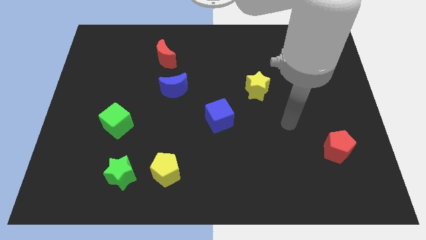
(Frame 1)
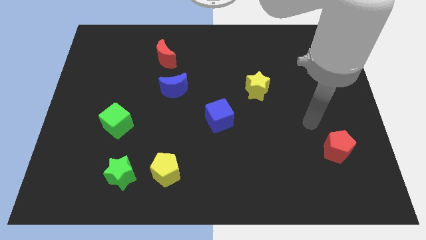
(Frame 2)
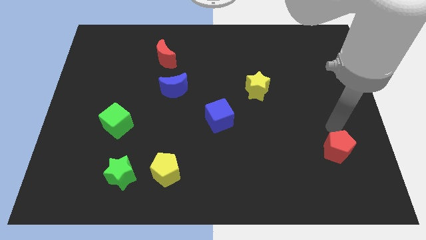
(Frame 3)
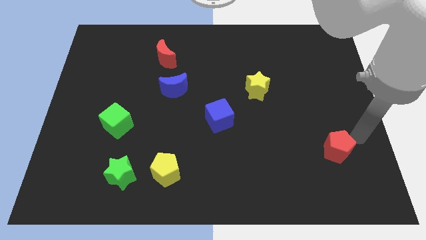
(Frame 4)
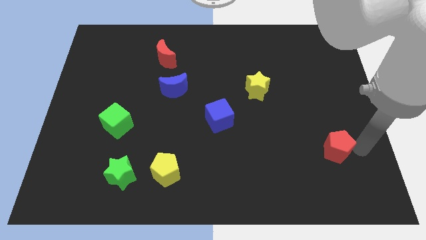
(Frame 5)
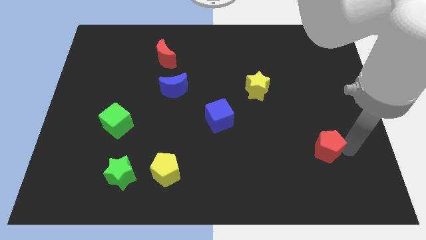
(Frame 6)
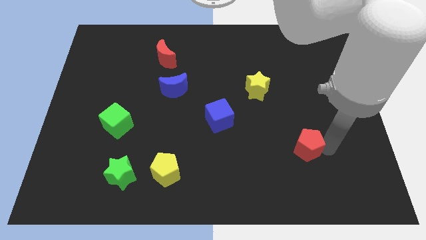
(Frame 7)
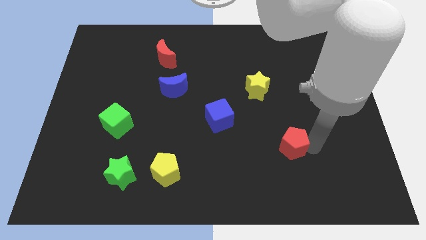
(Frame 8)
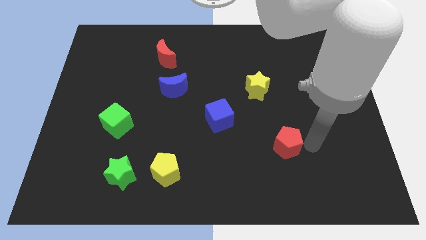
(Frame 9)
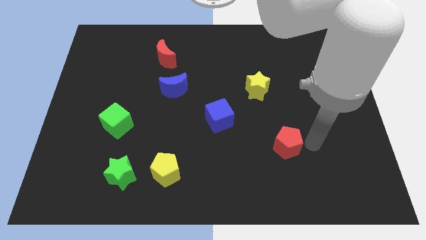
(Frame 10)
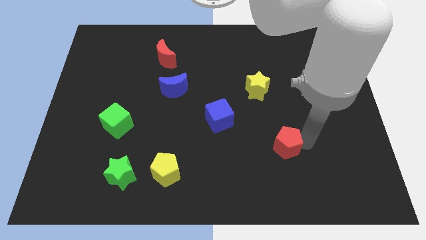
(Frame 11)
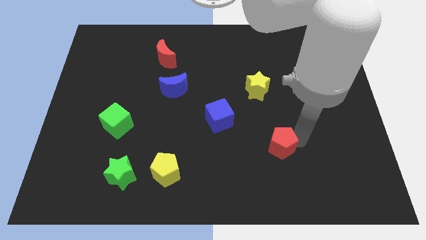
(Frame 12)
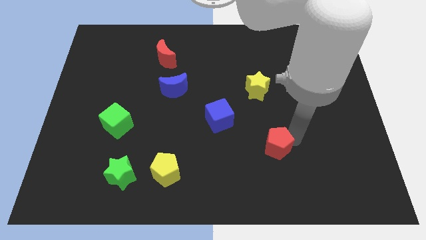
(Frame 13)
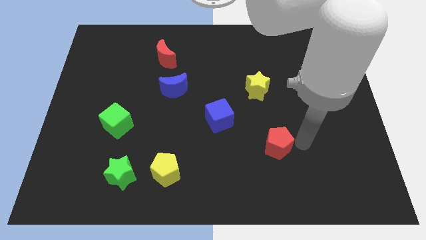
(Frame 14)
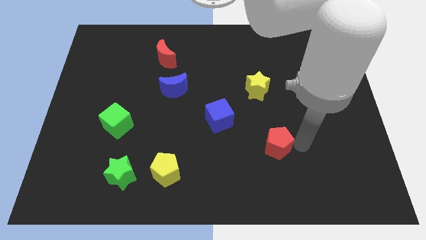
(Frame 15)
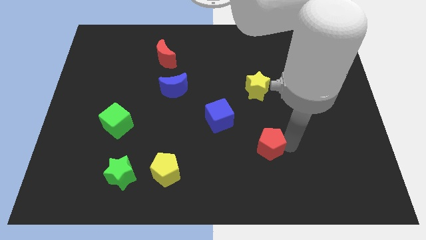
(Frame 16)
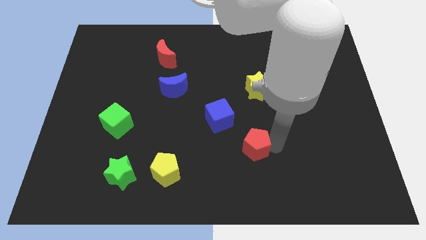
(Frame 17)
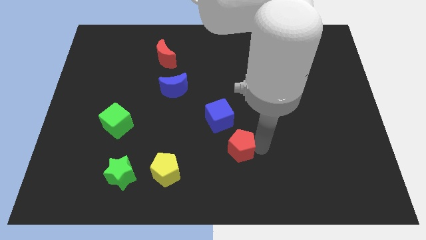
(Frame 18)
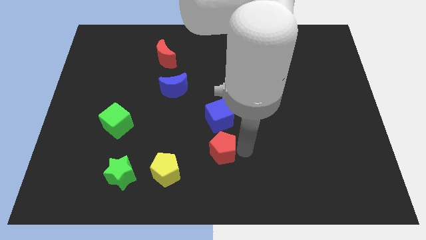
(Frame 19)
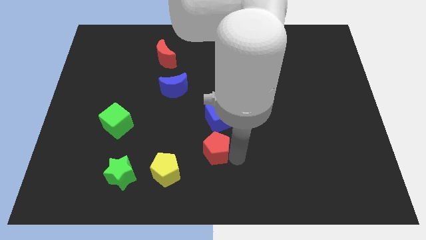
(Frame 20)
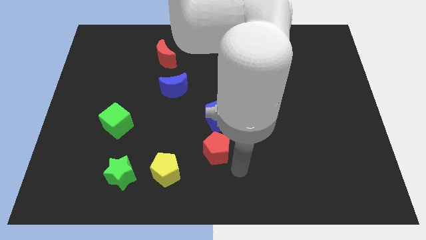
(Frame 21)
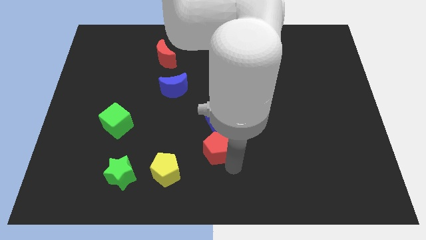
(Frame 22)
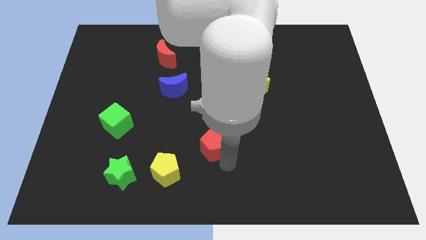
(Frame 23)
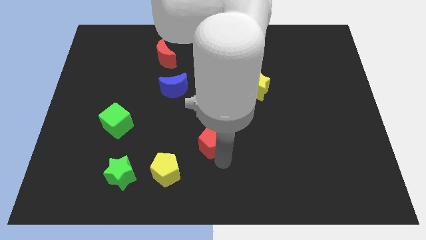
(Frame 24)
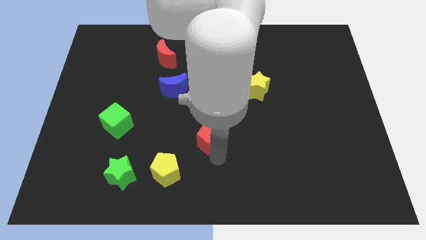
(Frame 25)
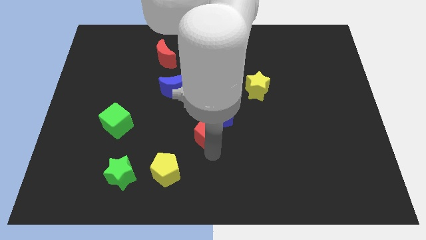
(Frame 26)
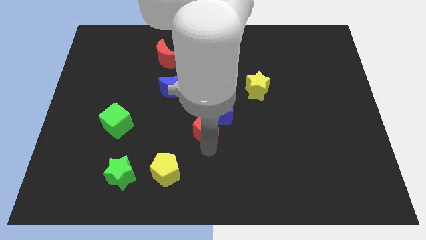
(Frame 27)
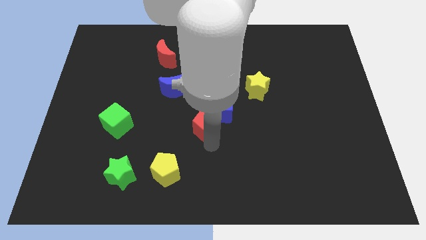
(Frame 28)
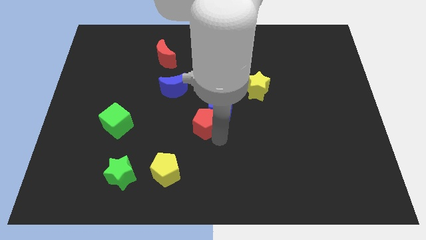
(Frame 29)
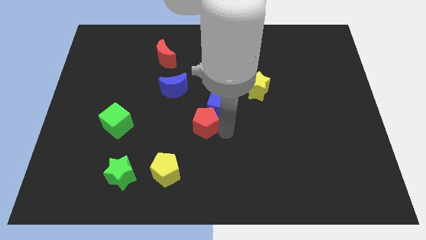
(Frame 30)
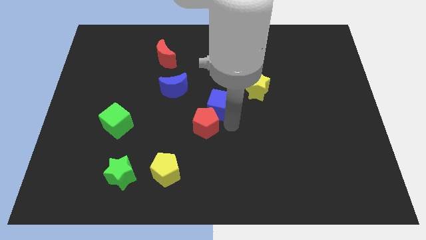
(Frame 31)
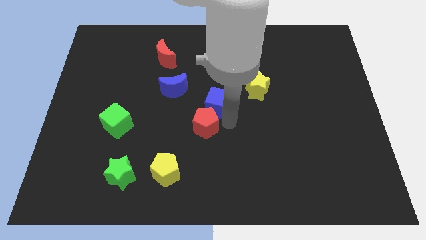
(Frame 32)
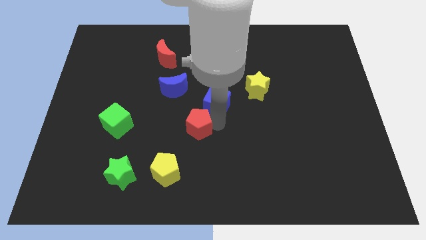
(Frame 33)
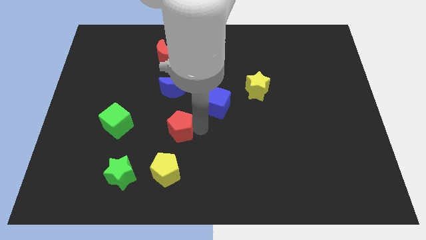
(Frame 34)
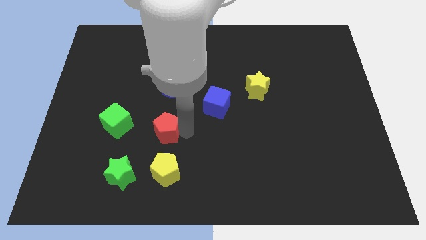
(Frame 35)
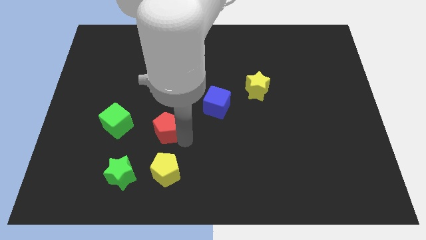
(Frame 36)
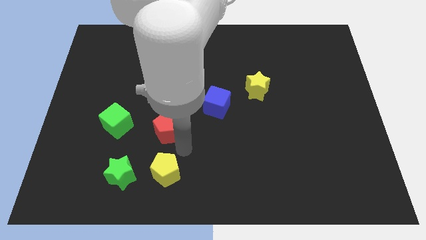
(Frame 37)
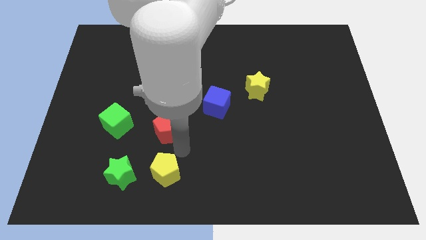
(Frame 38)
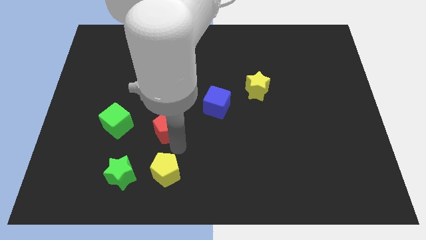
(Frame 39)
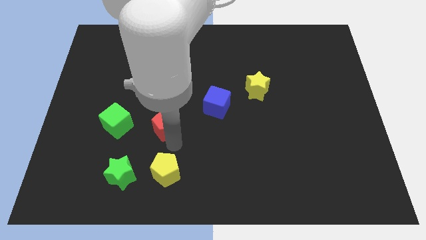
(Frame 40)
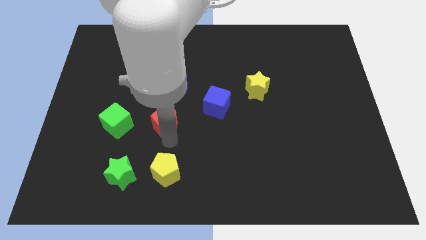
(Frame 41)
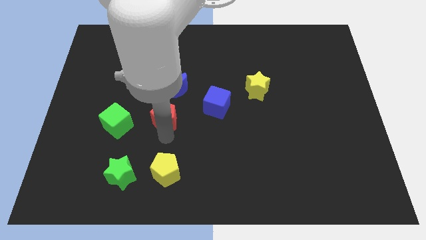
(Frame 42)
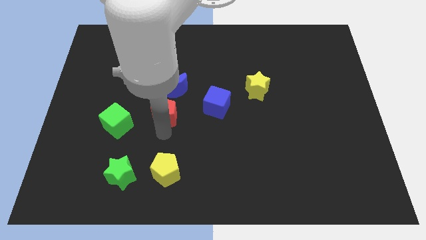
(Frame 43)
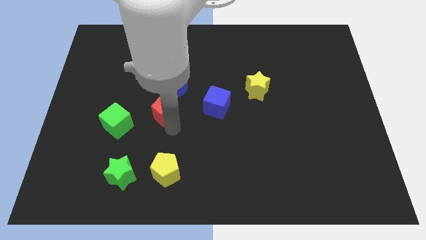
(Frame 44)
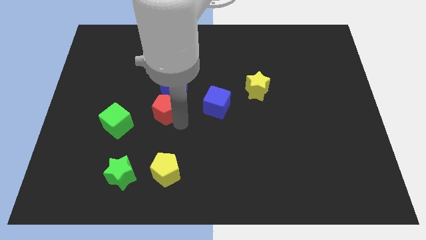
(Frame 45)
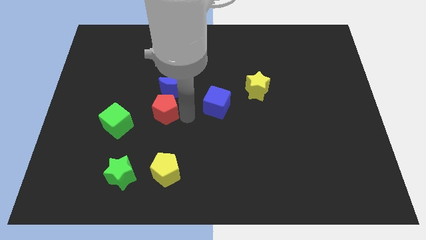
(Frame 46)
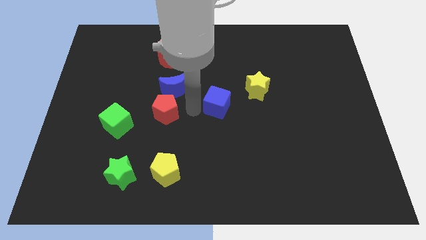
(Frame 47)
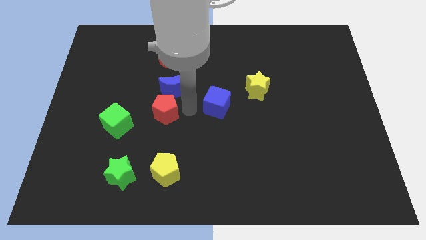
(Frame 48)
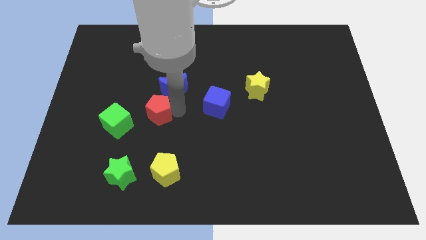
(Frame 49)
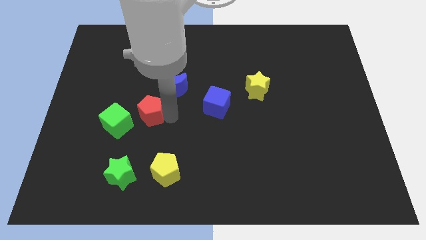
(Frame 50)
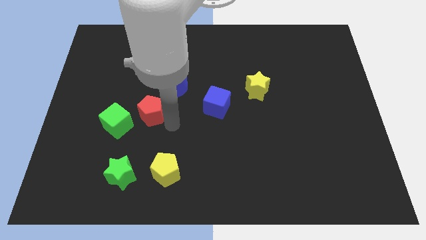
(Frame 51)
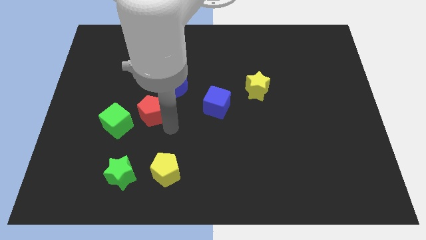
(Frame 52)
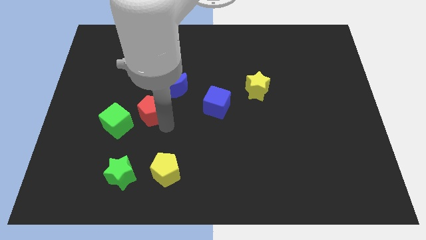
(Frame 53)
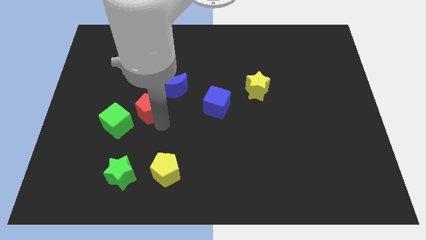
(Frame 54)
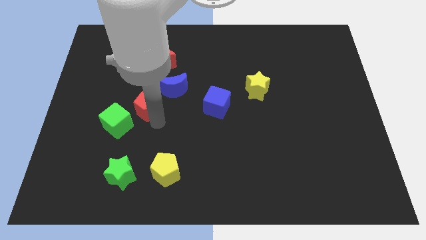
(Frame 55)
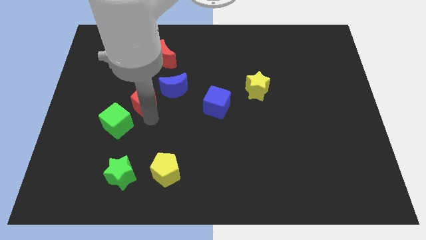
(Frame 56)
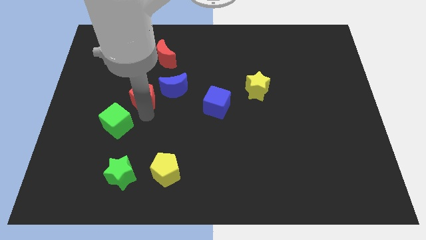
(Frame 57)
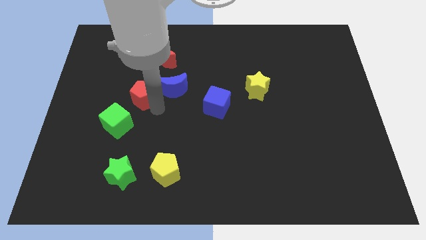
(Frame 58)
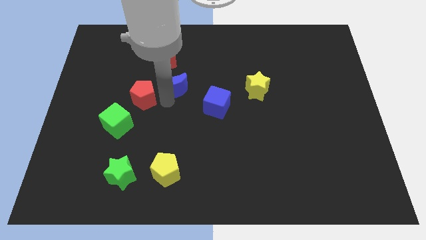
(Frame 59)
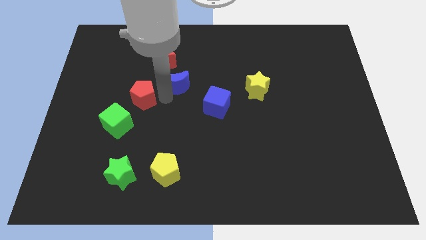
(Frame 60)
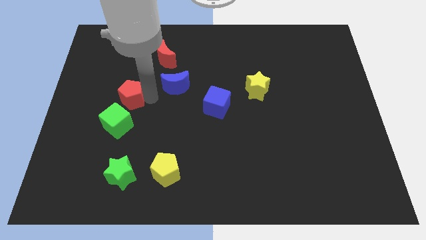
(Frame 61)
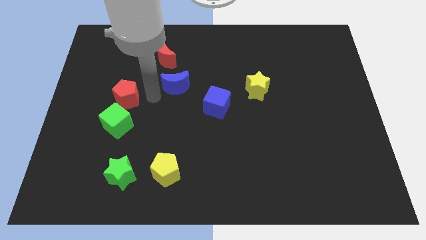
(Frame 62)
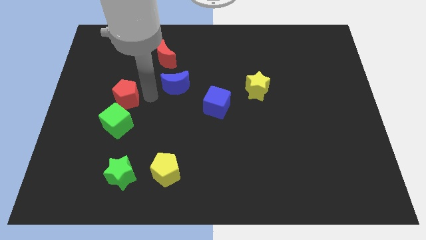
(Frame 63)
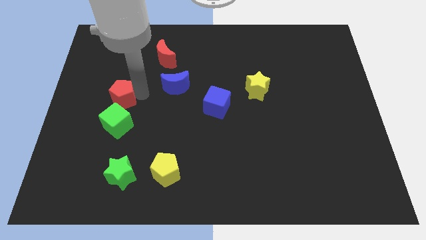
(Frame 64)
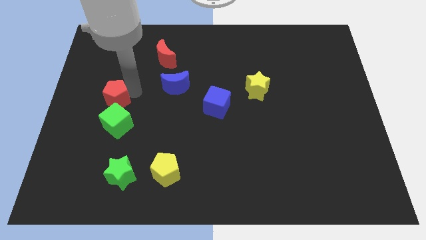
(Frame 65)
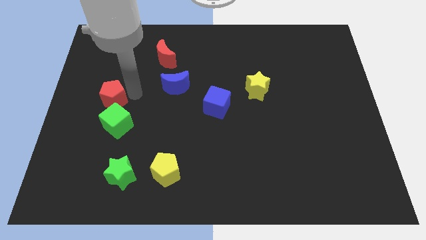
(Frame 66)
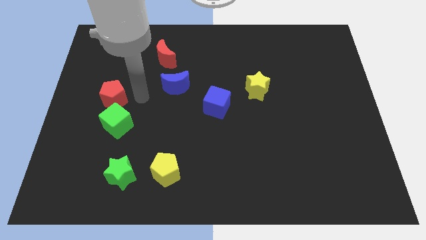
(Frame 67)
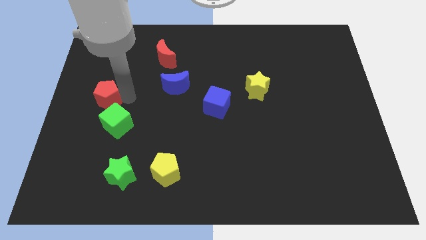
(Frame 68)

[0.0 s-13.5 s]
put the red pentagon to the center left
